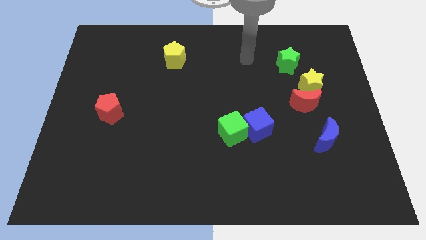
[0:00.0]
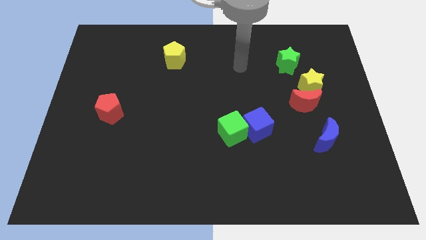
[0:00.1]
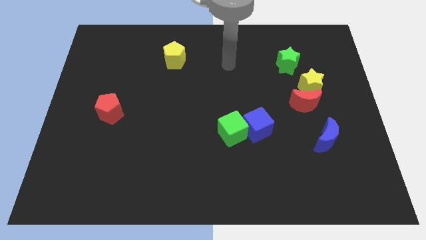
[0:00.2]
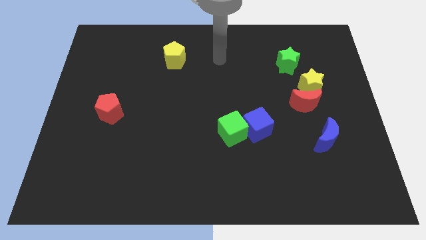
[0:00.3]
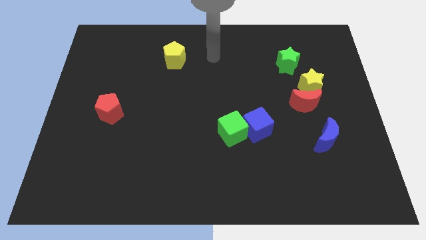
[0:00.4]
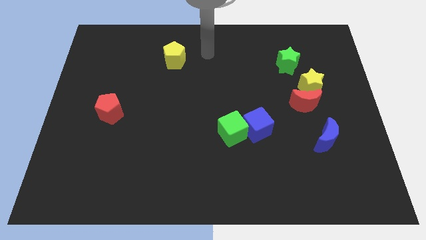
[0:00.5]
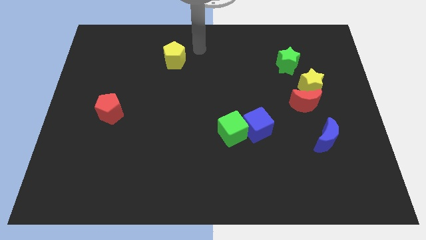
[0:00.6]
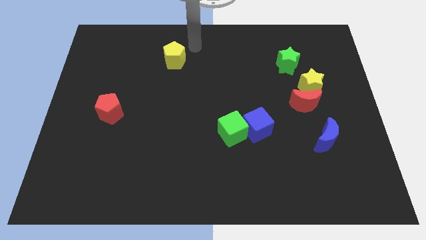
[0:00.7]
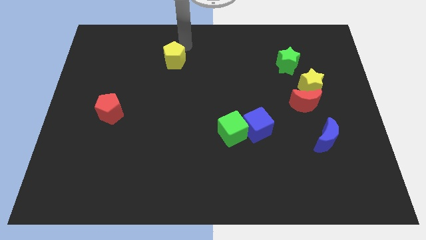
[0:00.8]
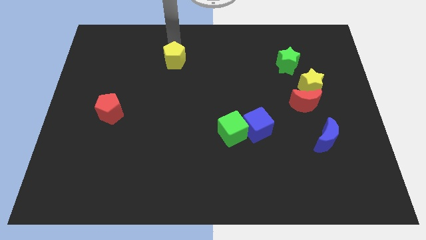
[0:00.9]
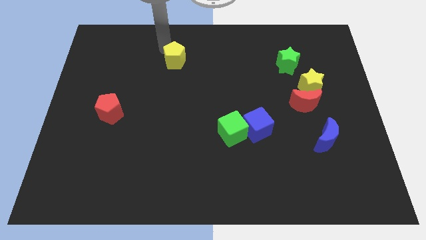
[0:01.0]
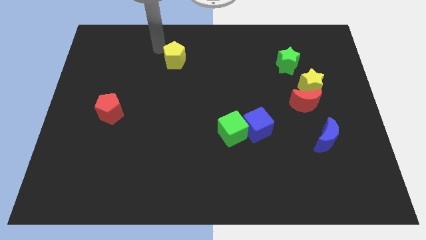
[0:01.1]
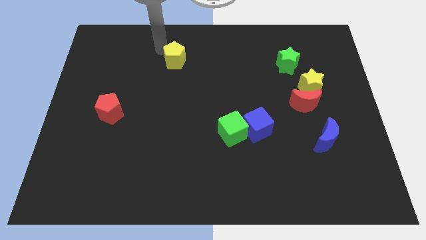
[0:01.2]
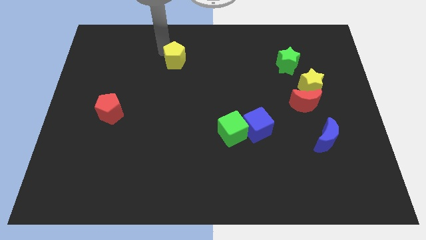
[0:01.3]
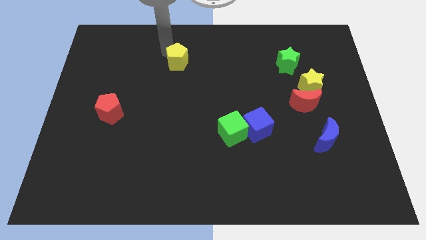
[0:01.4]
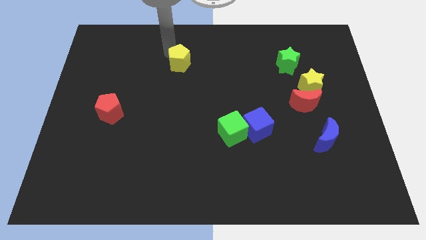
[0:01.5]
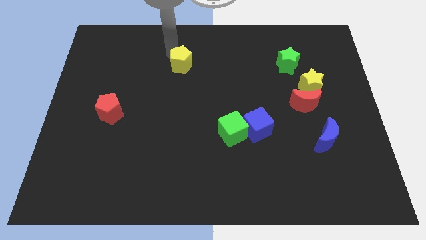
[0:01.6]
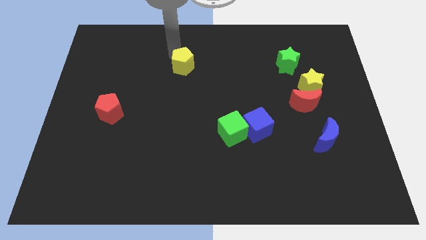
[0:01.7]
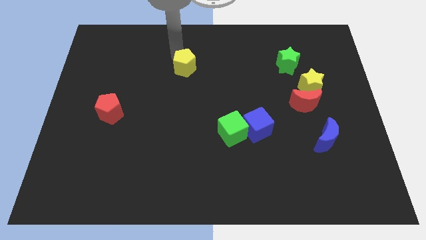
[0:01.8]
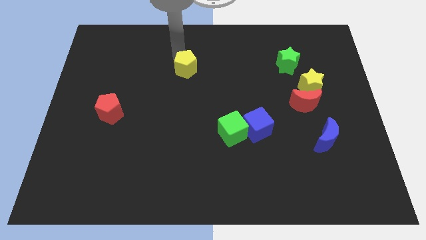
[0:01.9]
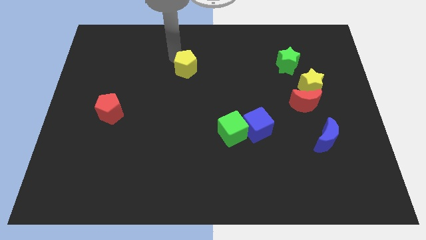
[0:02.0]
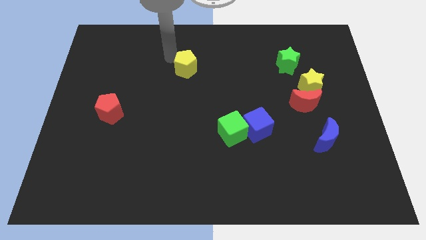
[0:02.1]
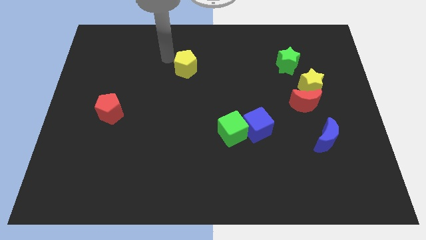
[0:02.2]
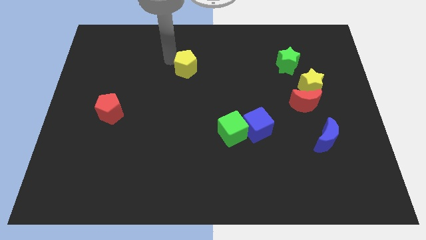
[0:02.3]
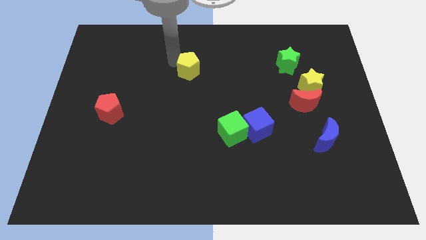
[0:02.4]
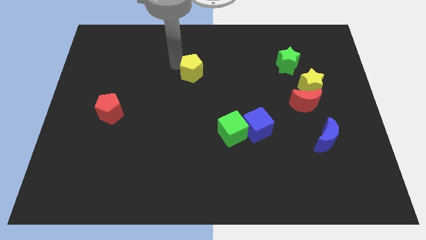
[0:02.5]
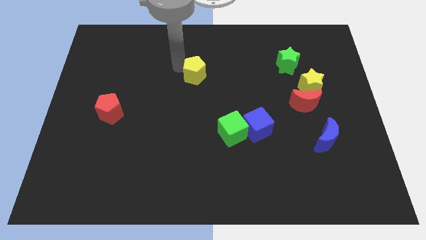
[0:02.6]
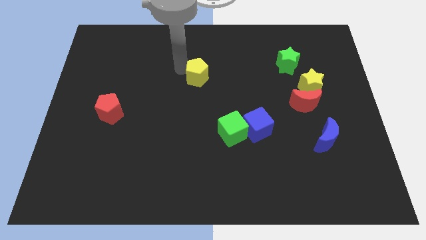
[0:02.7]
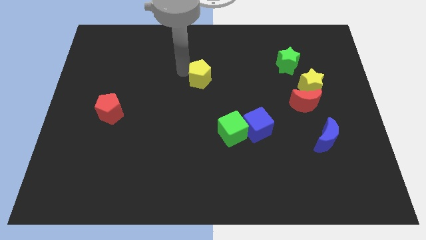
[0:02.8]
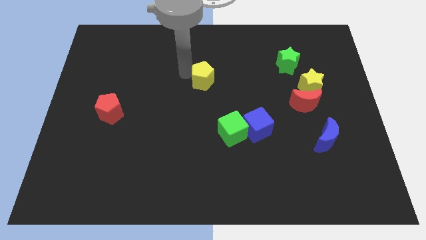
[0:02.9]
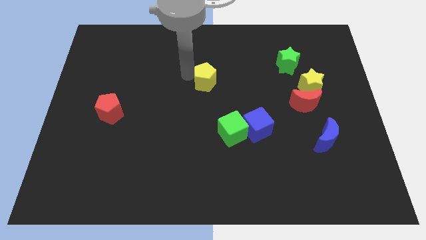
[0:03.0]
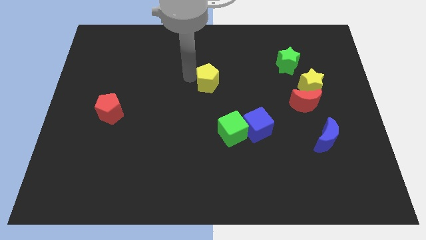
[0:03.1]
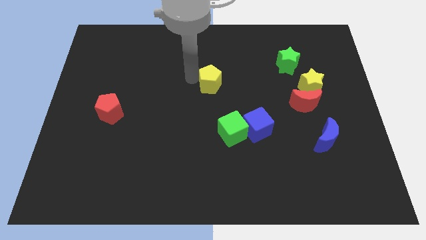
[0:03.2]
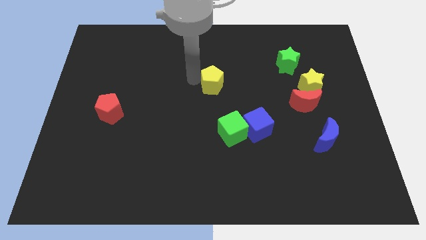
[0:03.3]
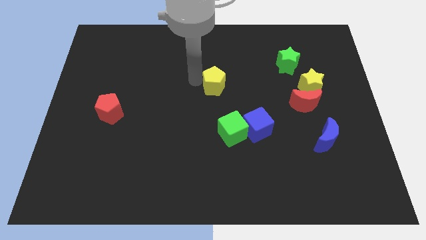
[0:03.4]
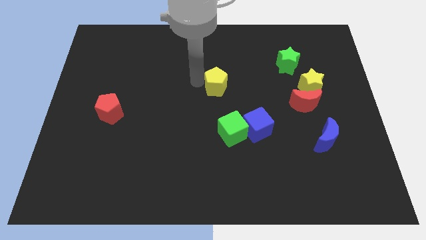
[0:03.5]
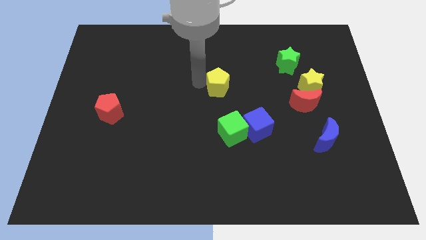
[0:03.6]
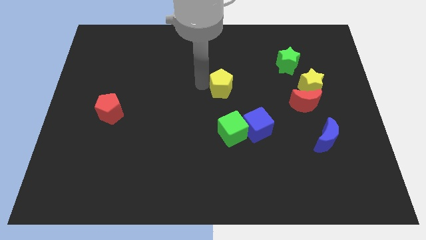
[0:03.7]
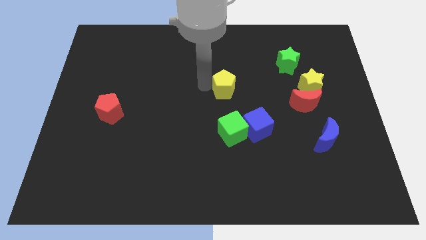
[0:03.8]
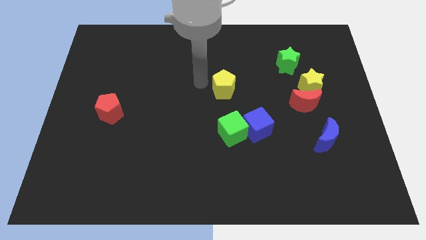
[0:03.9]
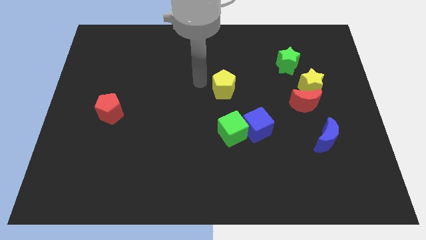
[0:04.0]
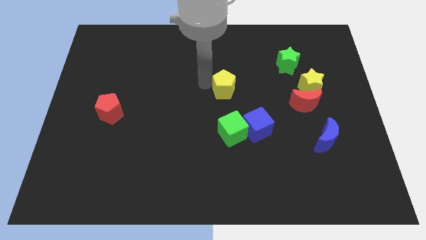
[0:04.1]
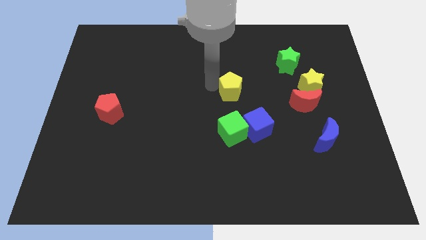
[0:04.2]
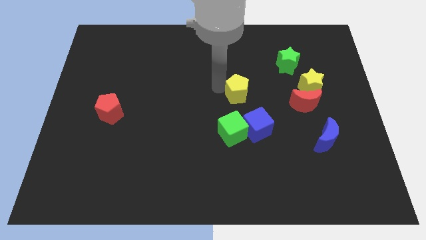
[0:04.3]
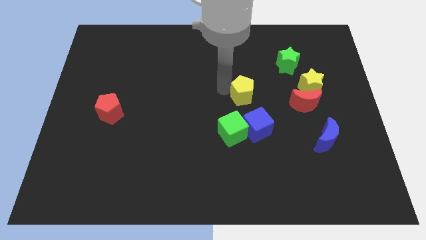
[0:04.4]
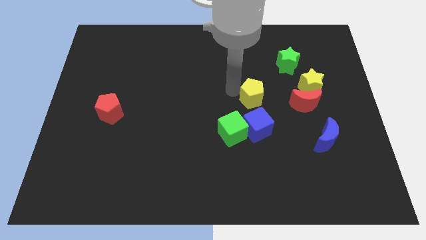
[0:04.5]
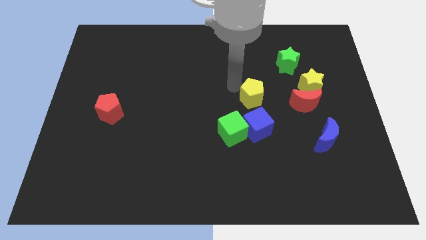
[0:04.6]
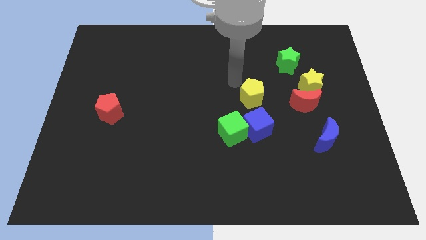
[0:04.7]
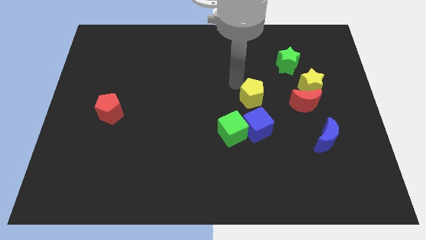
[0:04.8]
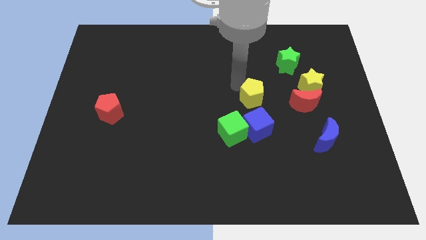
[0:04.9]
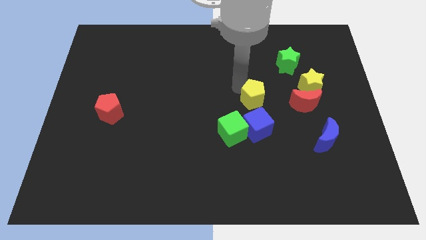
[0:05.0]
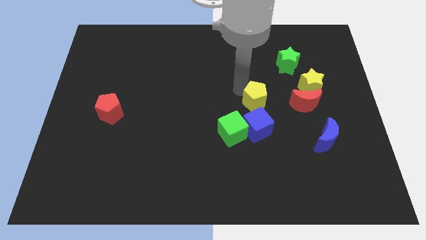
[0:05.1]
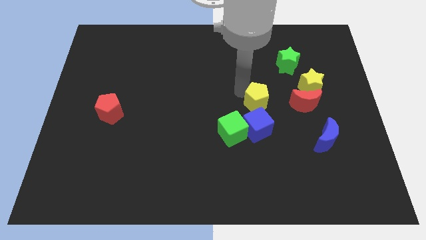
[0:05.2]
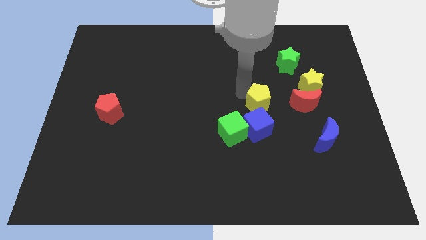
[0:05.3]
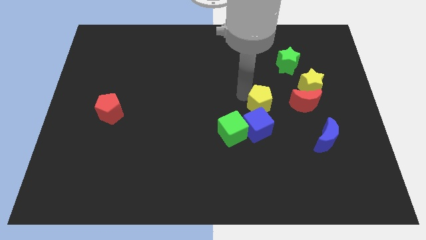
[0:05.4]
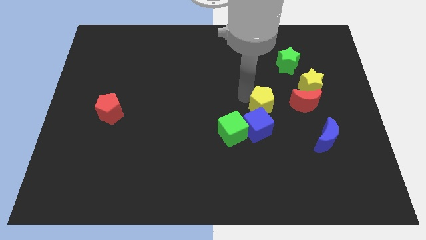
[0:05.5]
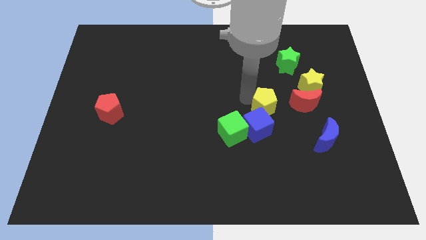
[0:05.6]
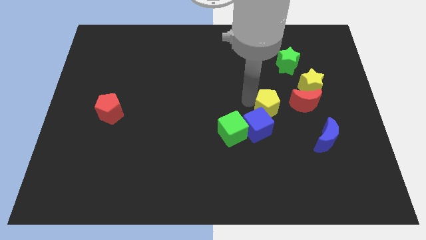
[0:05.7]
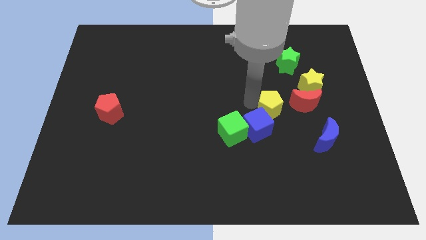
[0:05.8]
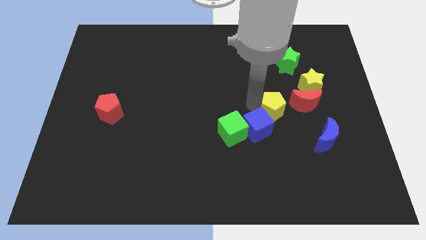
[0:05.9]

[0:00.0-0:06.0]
slide the yellow pentagon diagonally down and to the left of the red moon

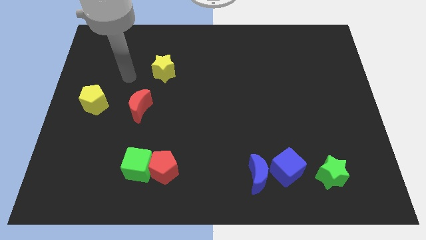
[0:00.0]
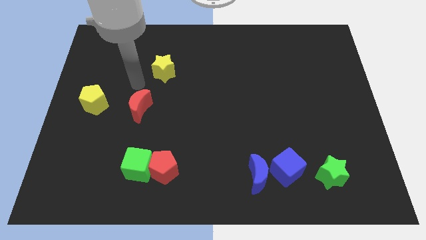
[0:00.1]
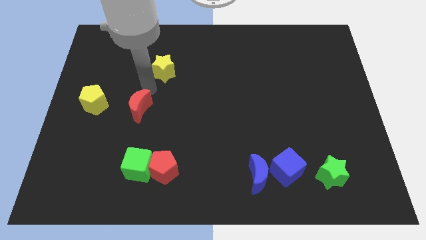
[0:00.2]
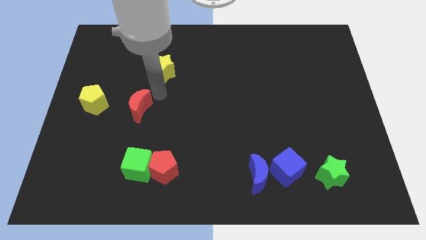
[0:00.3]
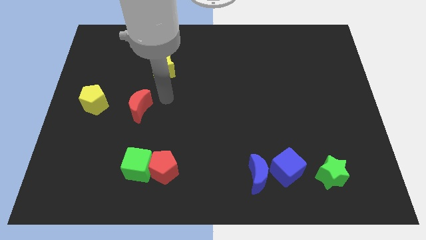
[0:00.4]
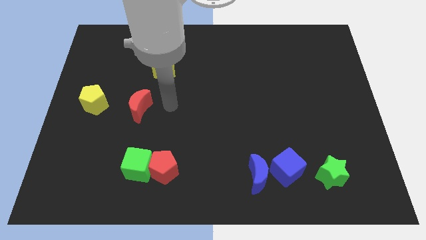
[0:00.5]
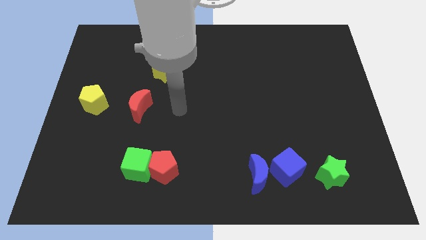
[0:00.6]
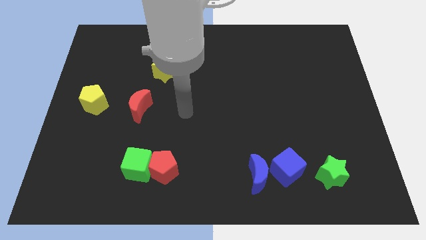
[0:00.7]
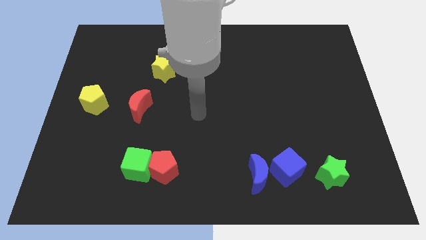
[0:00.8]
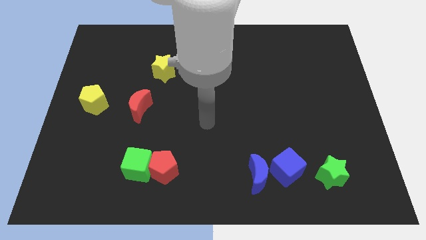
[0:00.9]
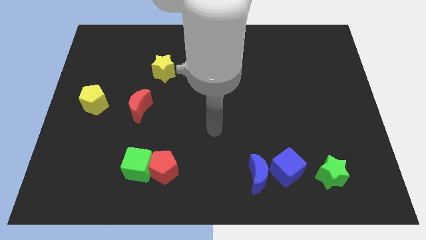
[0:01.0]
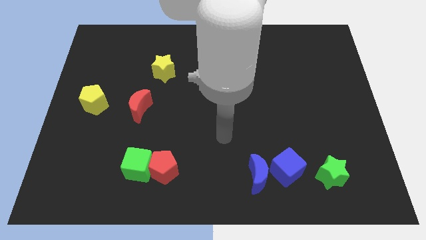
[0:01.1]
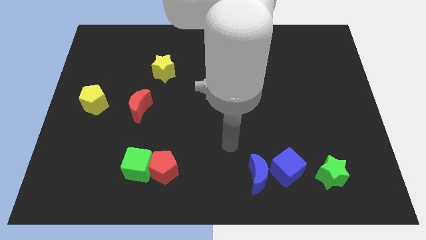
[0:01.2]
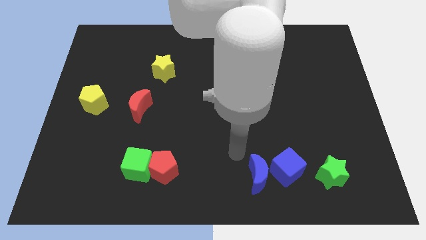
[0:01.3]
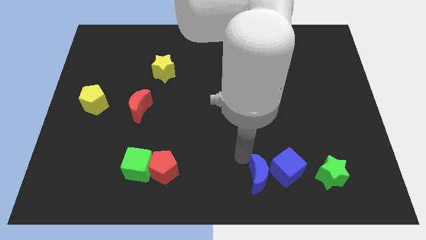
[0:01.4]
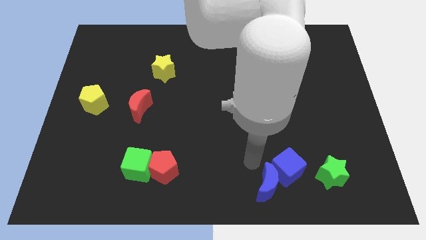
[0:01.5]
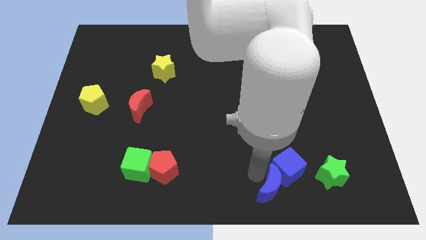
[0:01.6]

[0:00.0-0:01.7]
slide the blue cube to the top left side of the green star

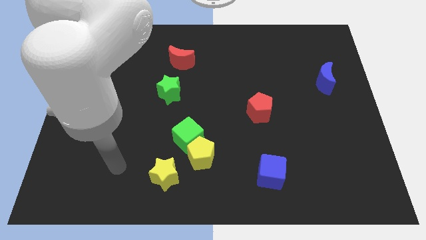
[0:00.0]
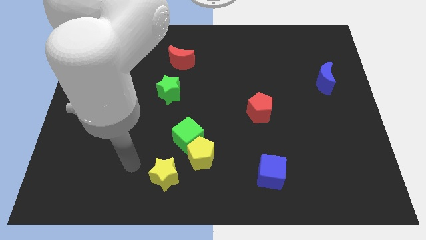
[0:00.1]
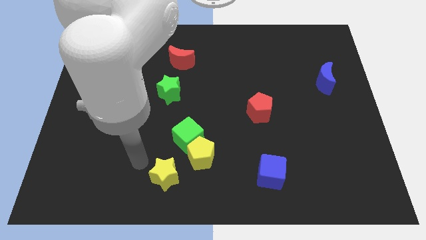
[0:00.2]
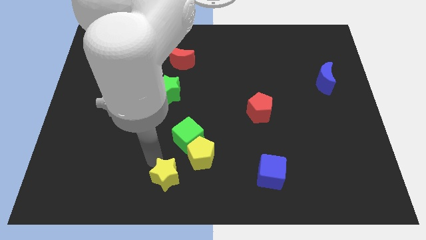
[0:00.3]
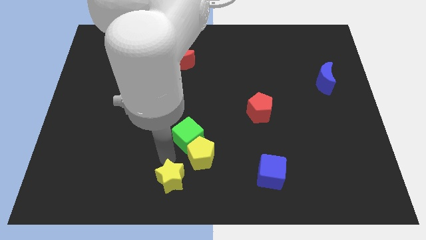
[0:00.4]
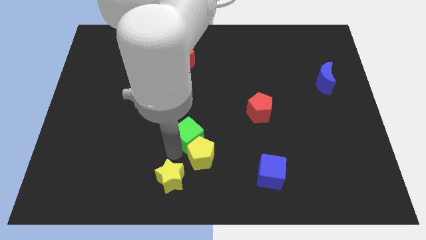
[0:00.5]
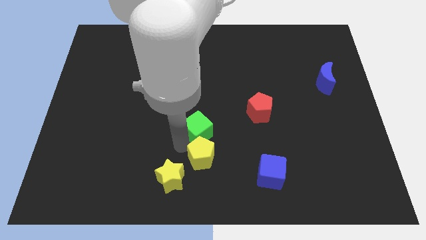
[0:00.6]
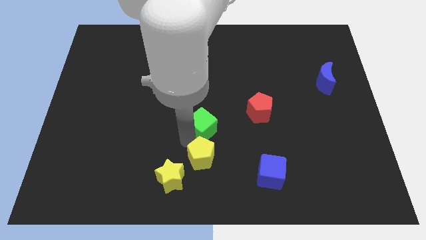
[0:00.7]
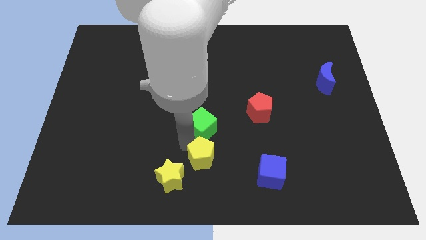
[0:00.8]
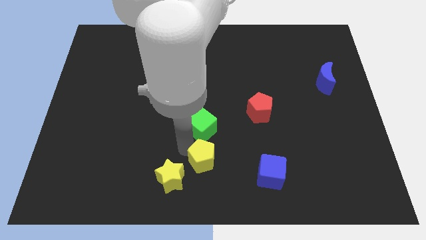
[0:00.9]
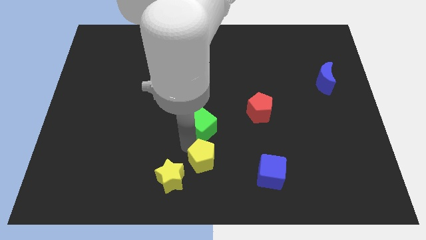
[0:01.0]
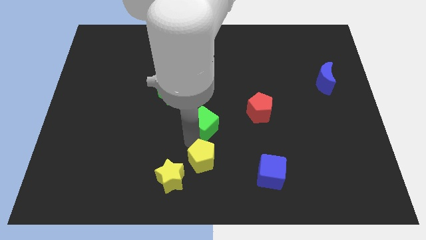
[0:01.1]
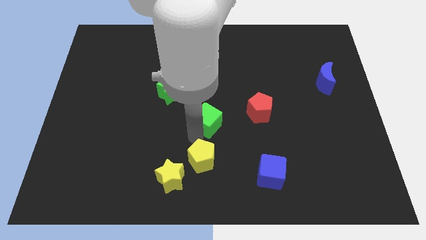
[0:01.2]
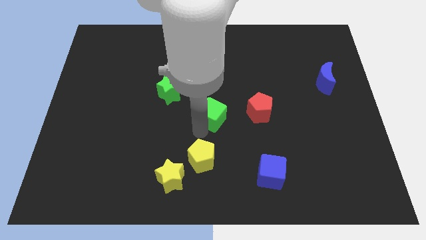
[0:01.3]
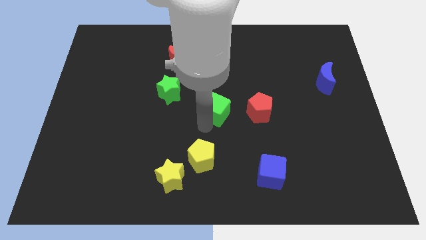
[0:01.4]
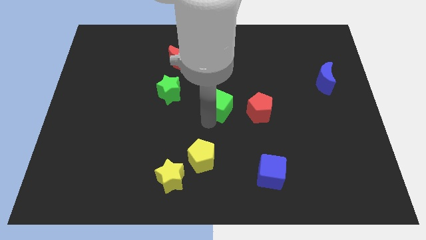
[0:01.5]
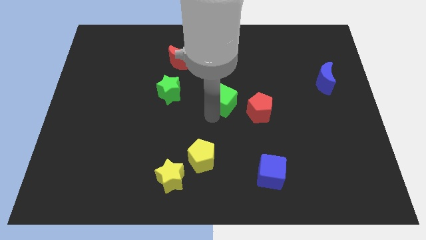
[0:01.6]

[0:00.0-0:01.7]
slide the green cube to the top left of the red pentagon
